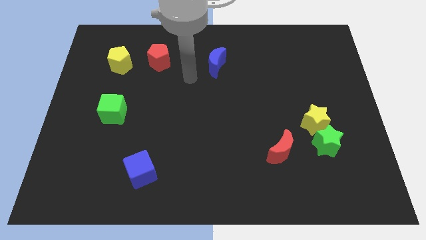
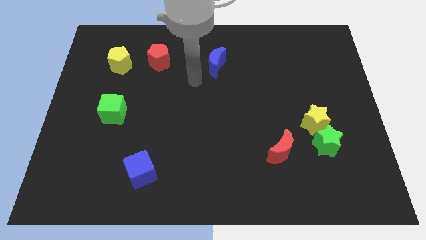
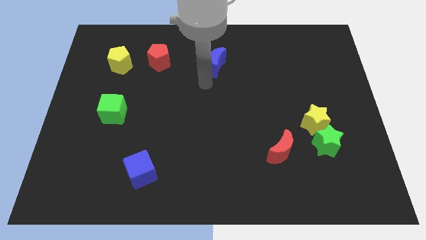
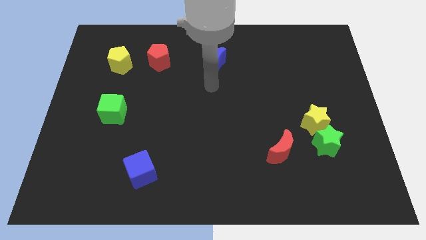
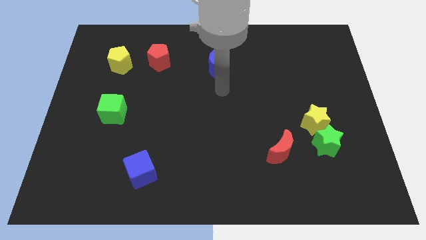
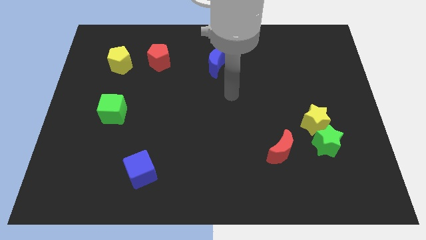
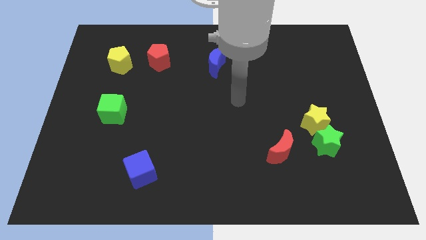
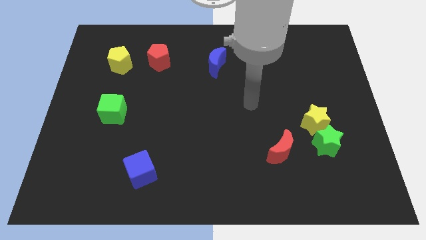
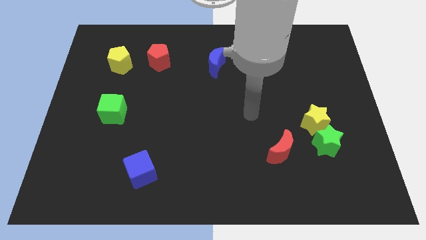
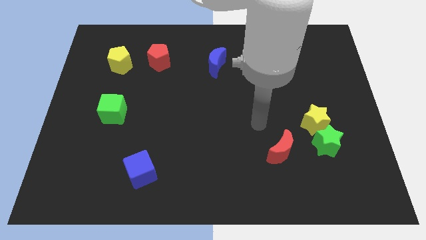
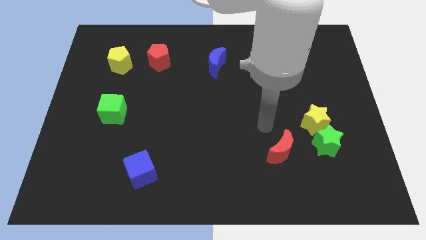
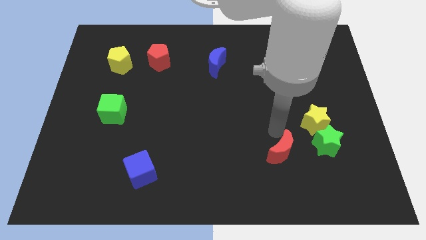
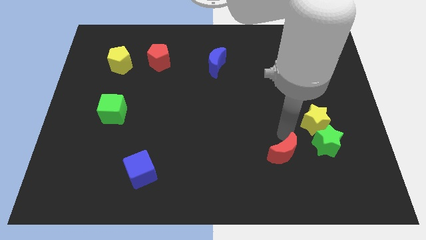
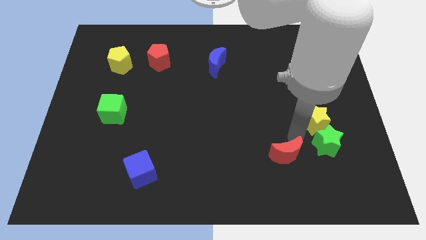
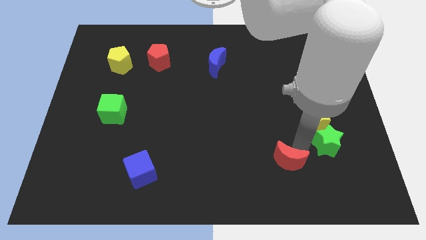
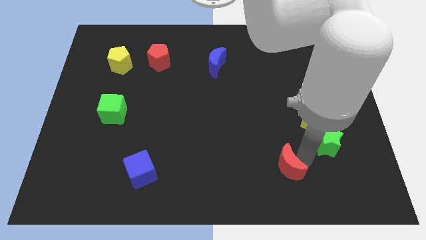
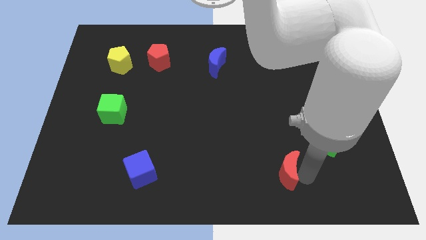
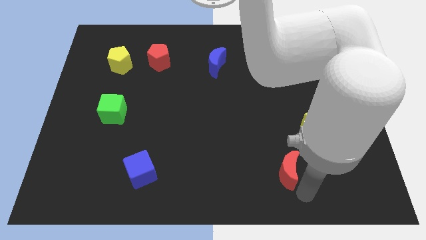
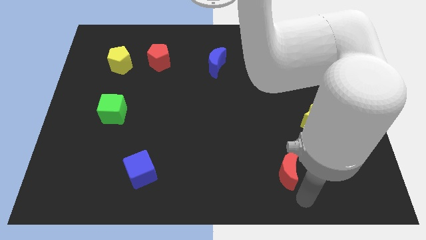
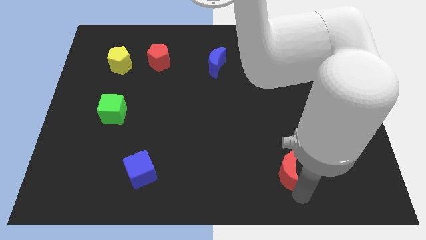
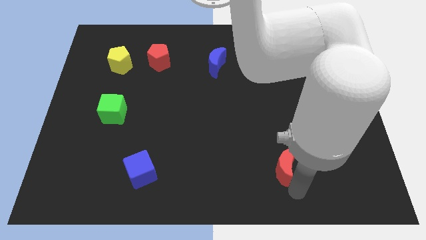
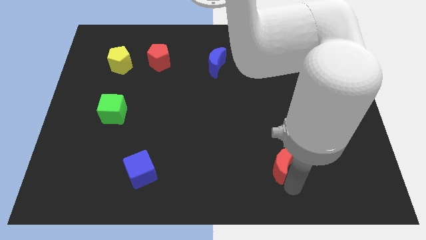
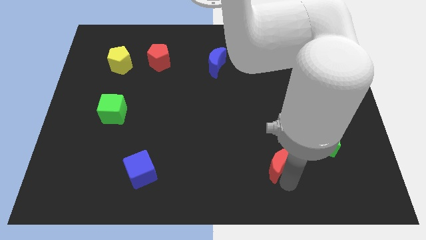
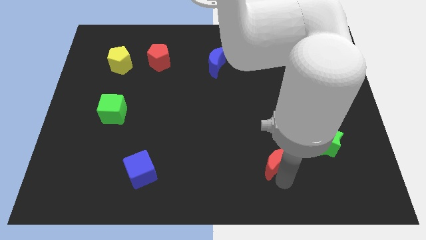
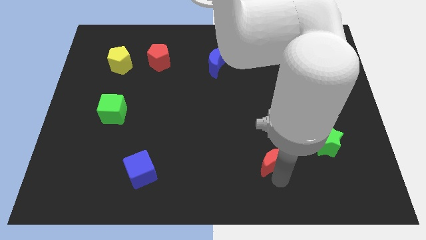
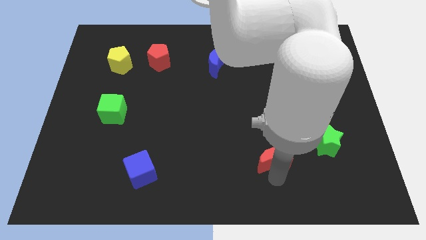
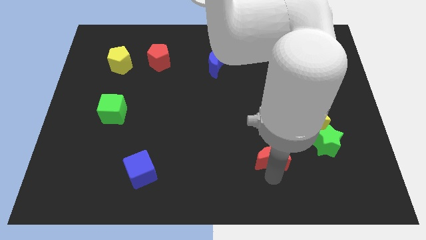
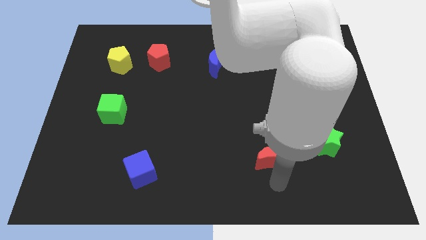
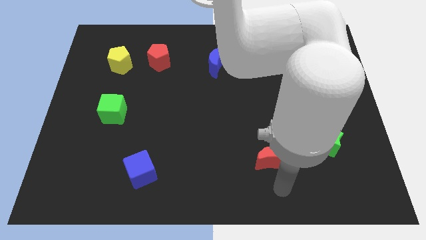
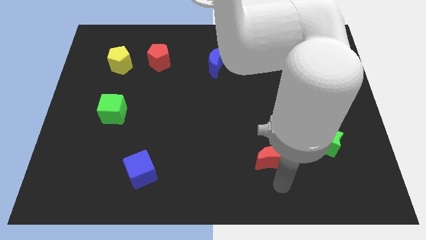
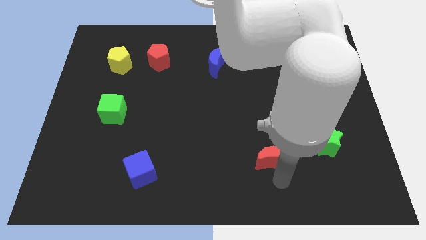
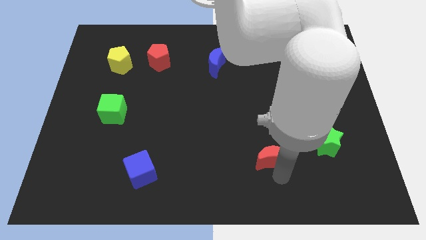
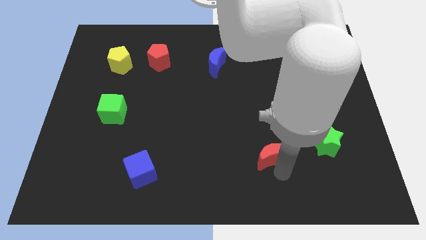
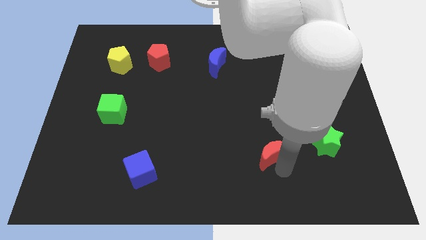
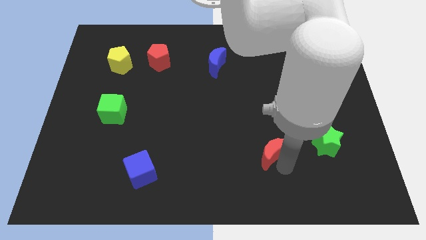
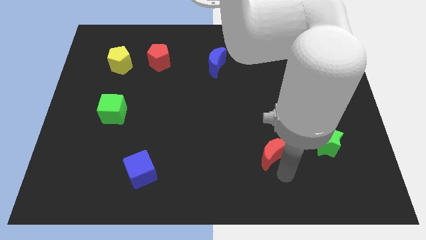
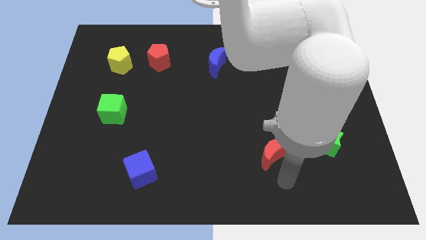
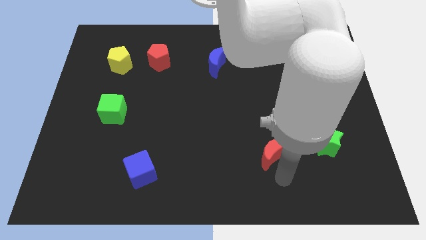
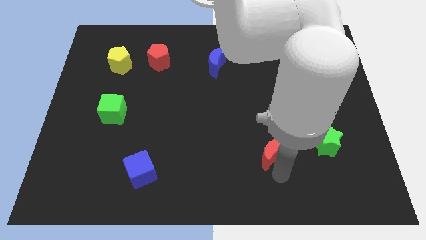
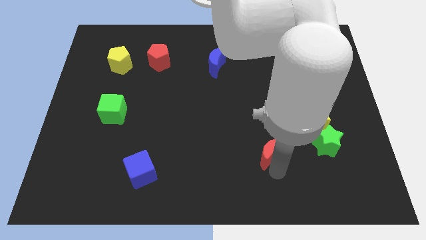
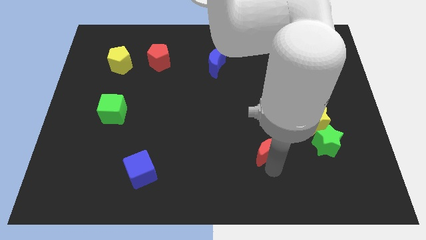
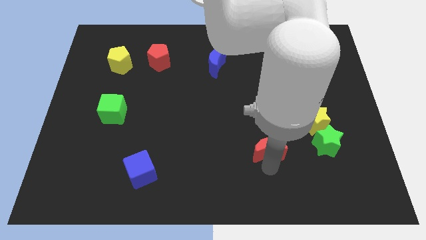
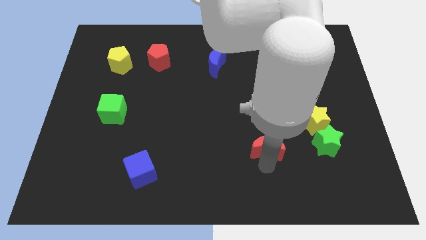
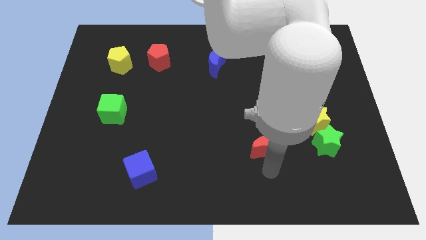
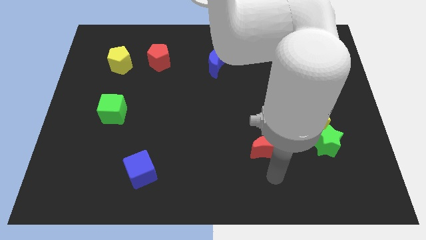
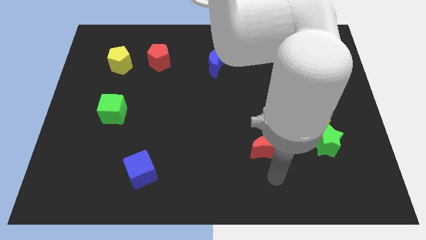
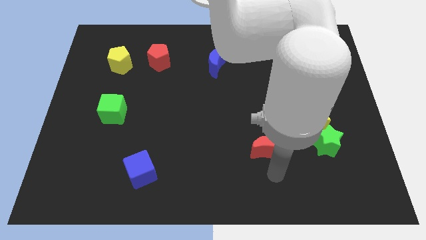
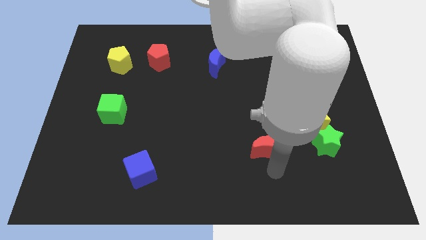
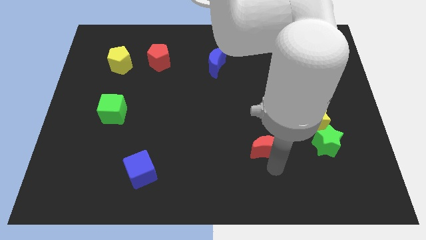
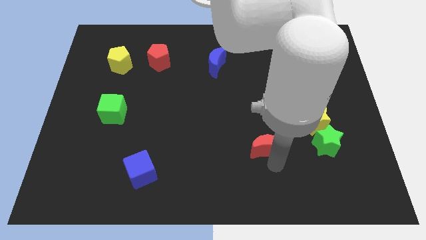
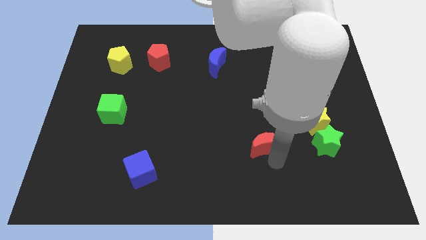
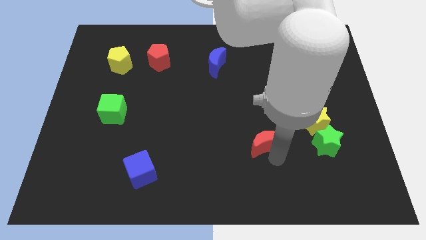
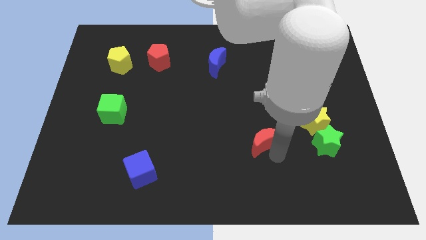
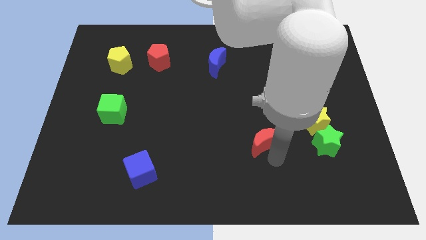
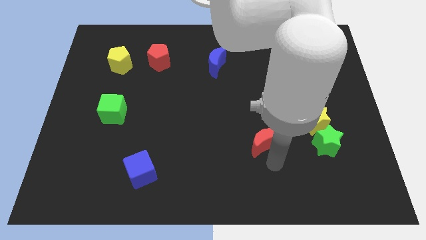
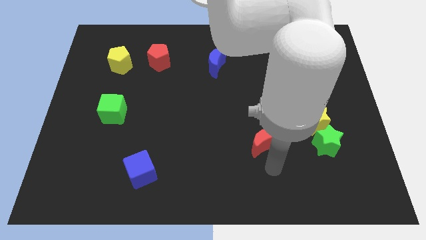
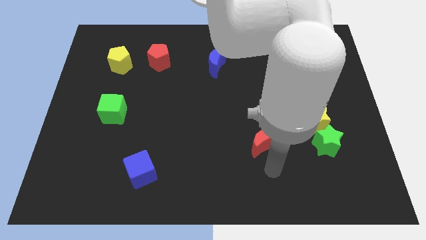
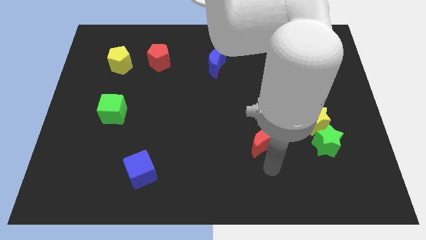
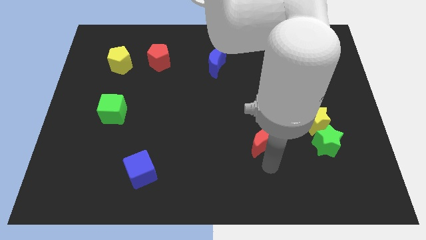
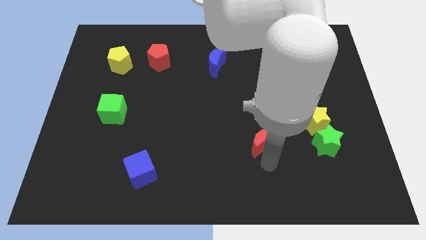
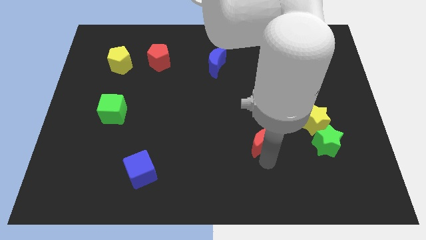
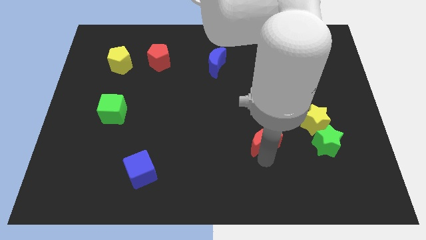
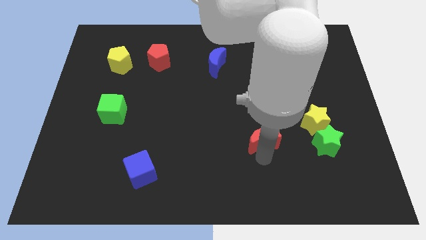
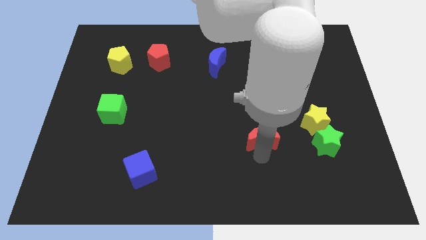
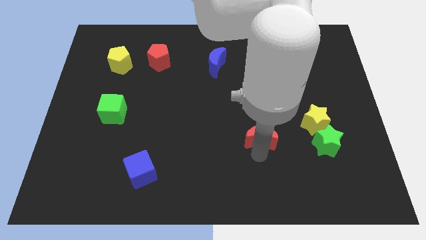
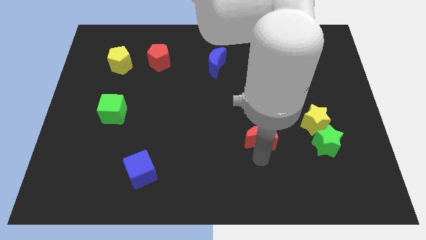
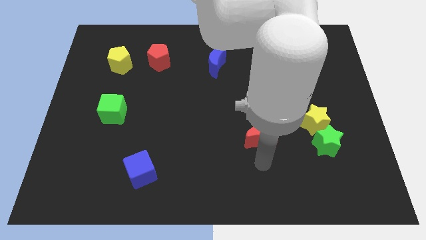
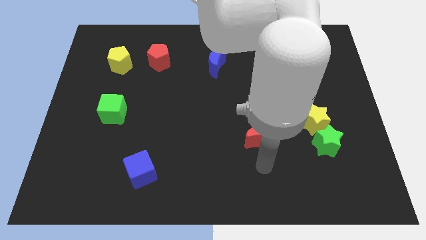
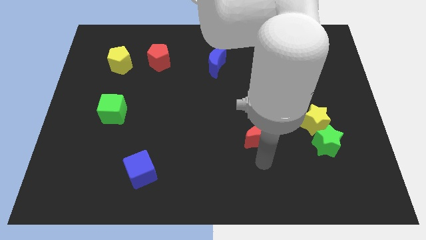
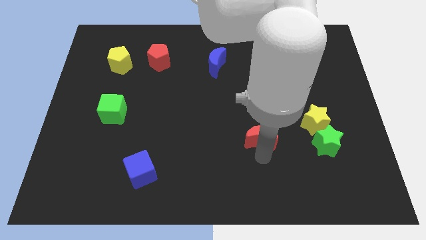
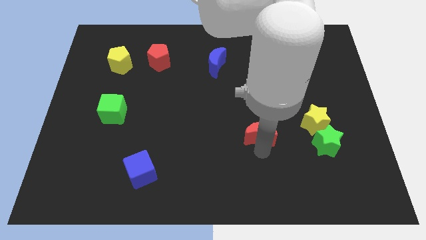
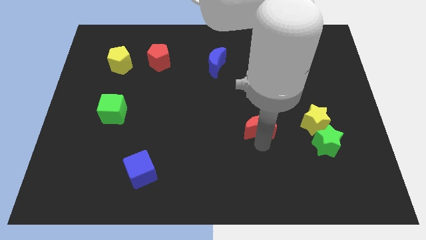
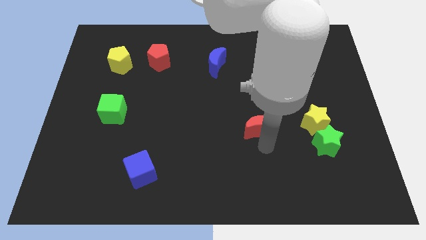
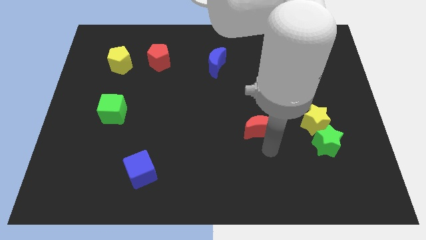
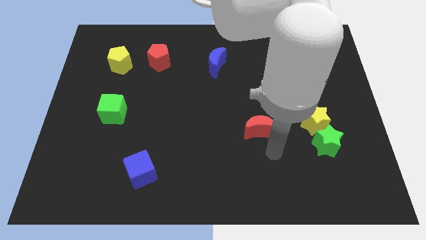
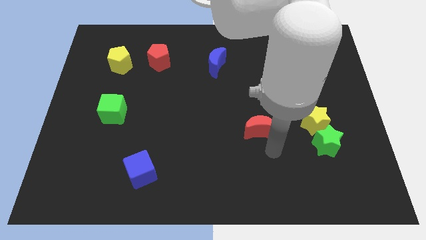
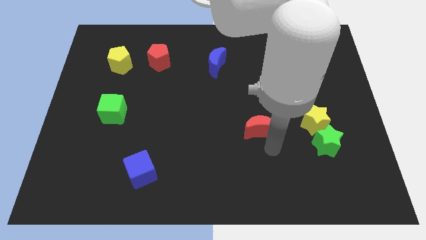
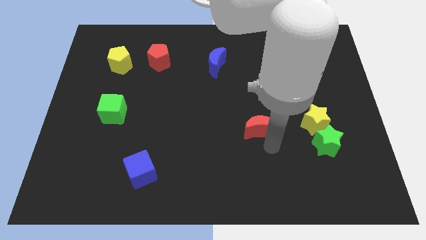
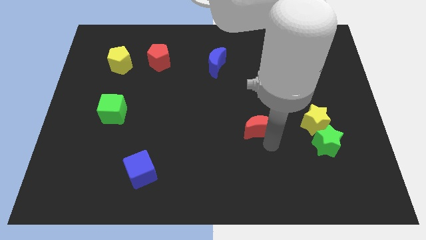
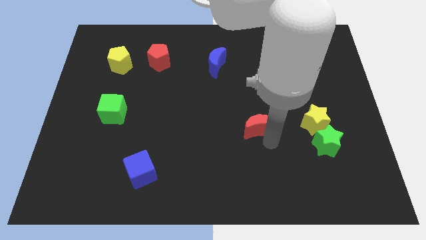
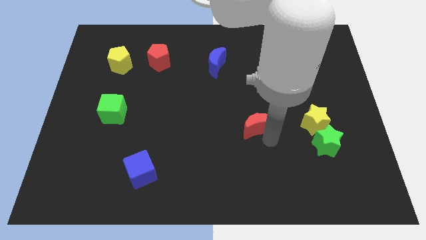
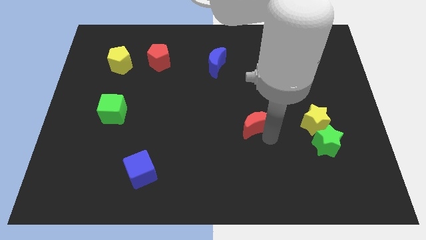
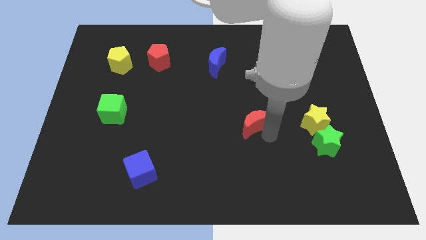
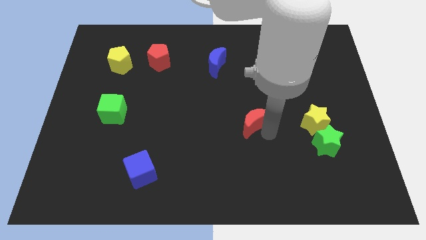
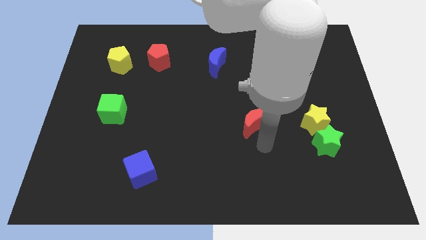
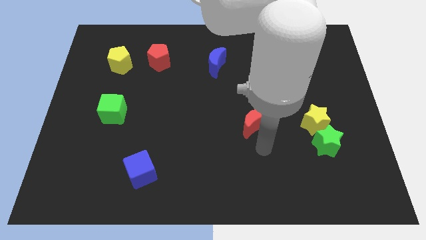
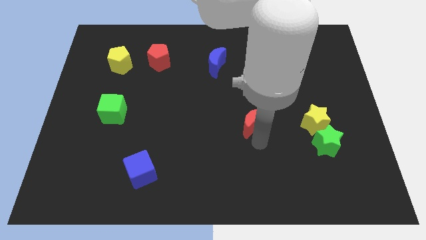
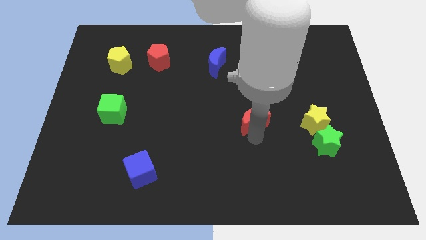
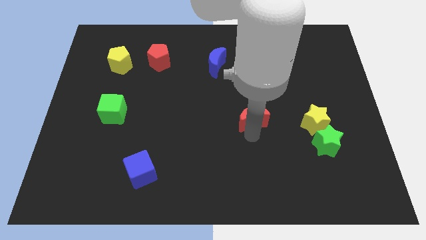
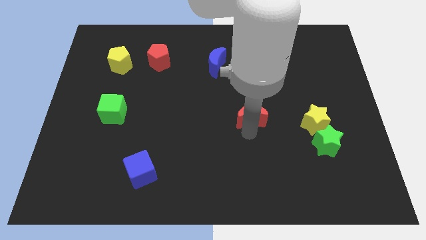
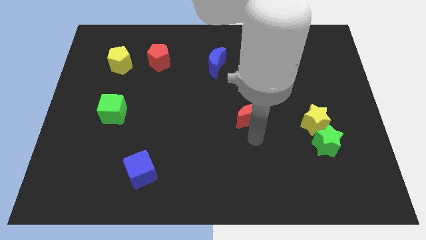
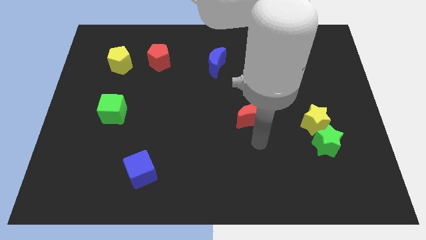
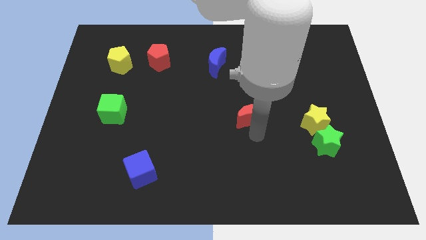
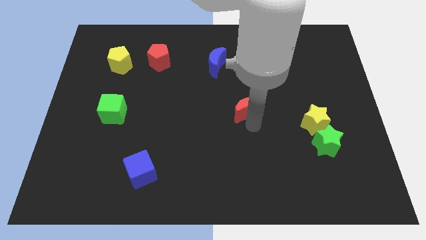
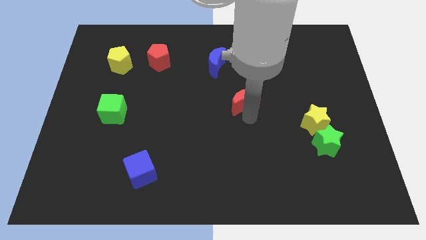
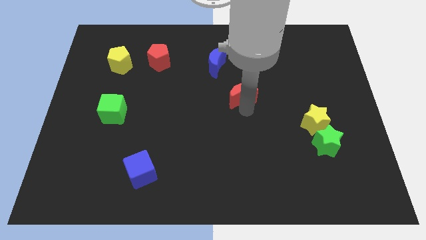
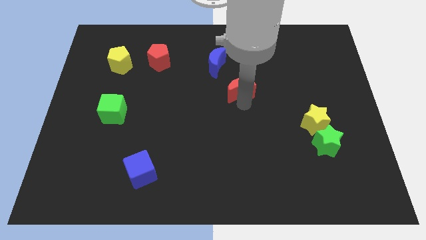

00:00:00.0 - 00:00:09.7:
put the red moon diagonally down and to the right of the blue moon
